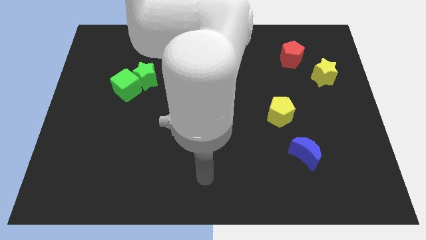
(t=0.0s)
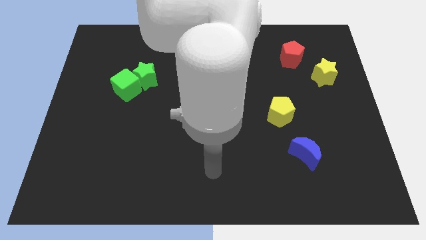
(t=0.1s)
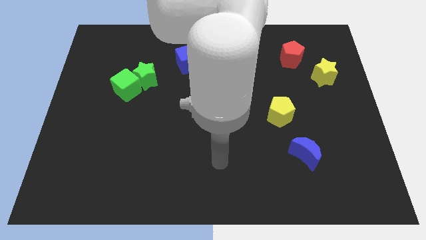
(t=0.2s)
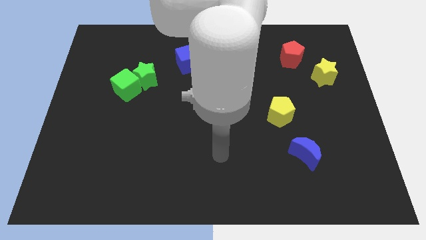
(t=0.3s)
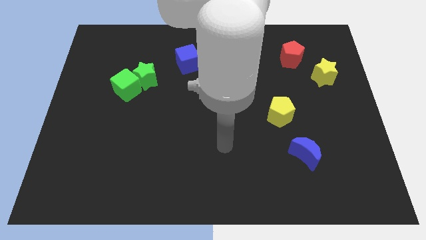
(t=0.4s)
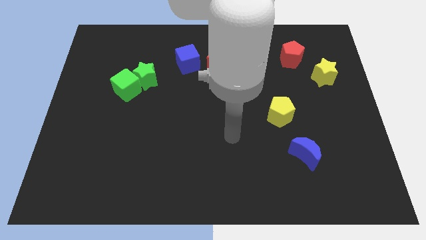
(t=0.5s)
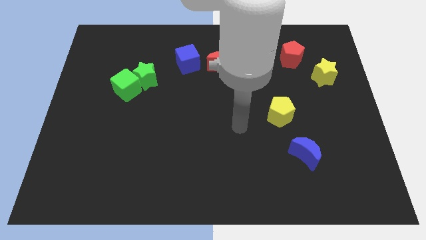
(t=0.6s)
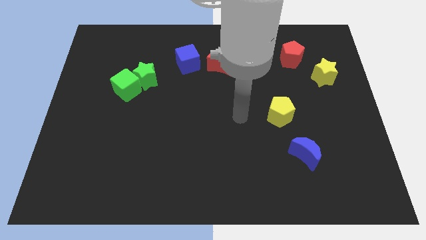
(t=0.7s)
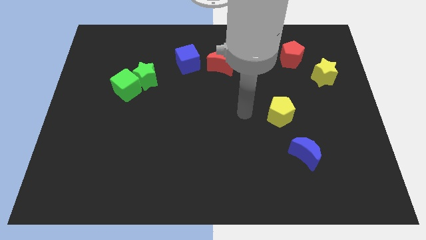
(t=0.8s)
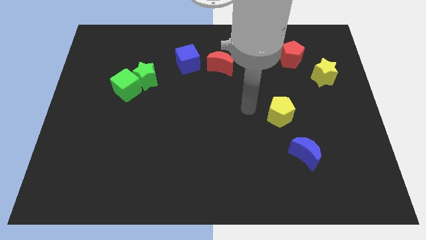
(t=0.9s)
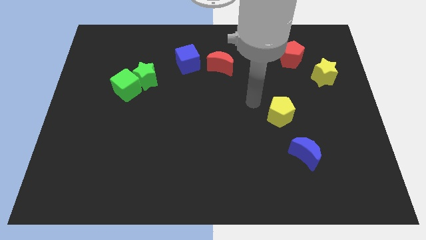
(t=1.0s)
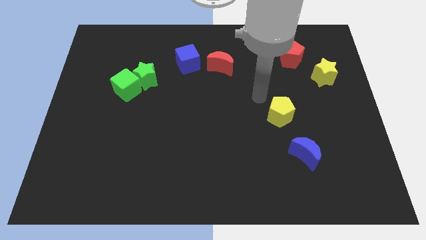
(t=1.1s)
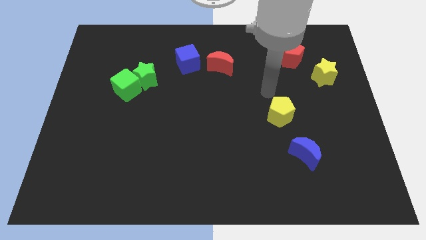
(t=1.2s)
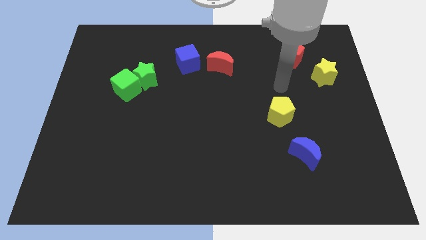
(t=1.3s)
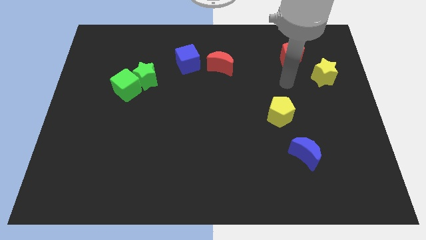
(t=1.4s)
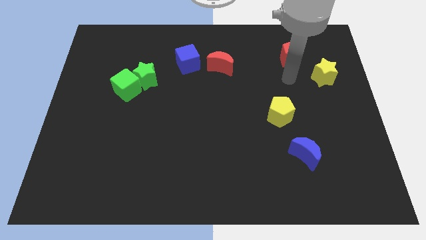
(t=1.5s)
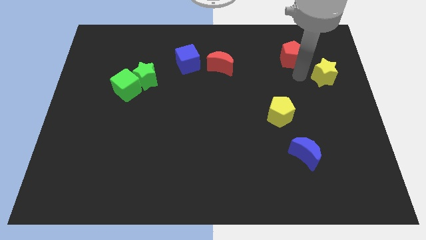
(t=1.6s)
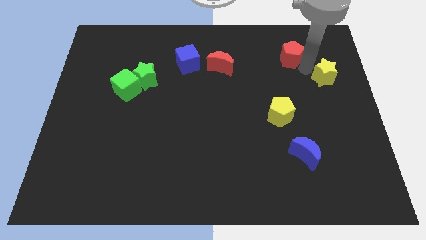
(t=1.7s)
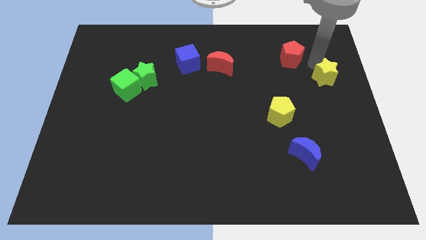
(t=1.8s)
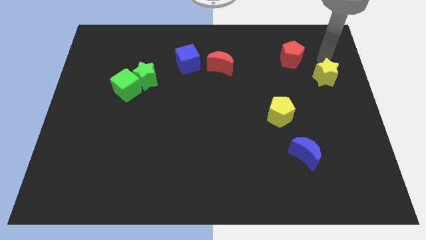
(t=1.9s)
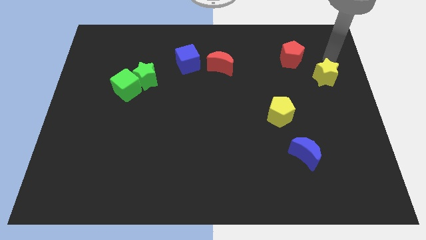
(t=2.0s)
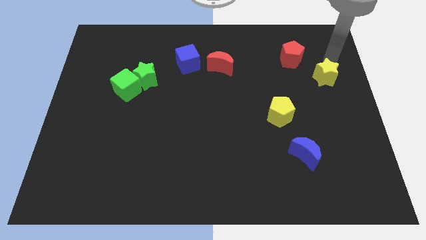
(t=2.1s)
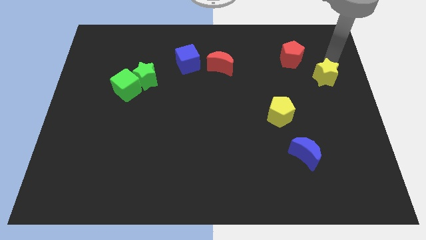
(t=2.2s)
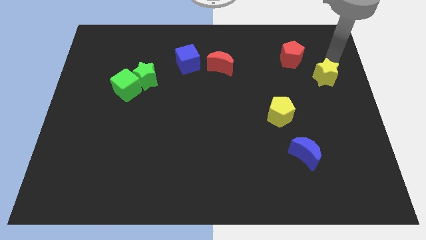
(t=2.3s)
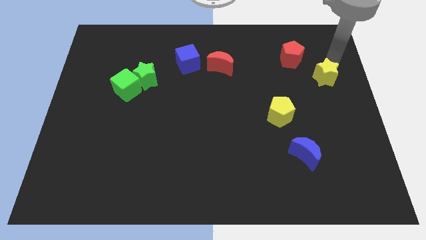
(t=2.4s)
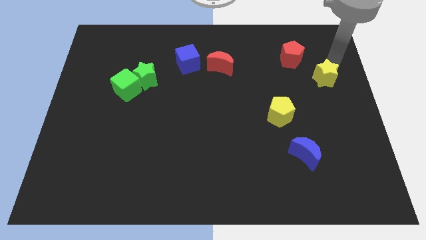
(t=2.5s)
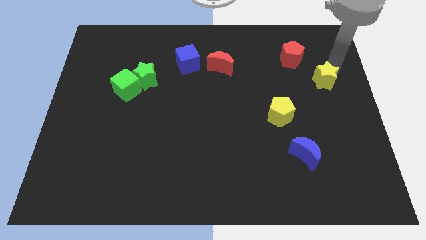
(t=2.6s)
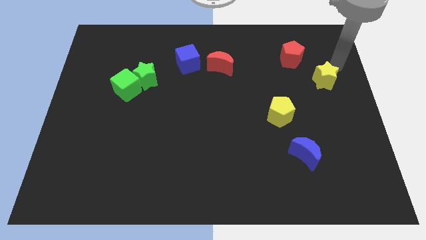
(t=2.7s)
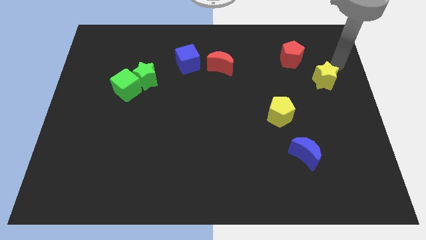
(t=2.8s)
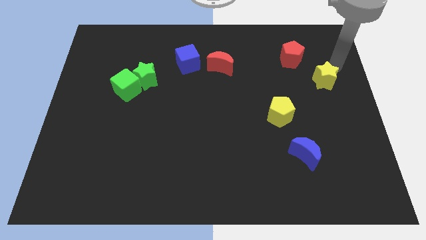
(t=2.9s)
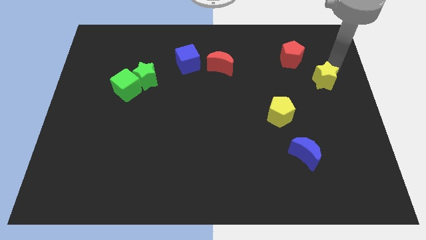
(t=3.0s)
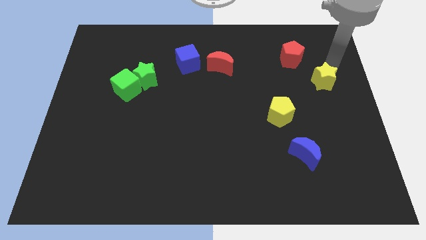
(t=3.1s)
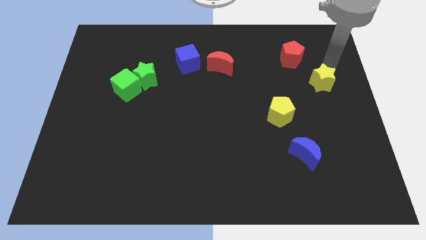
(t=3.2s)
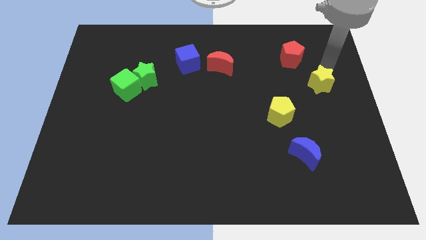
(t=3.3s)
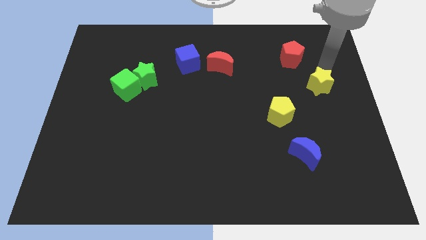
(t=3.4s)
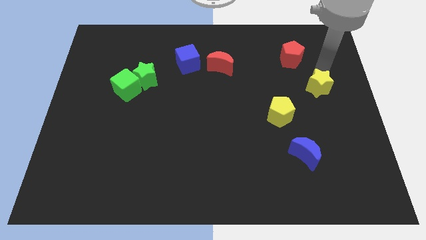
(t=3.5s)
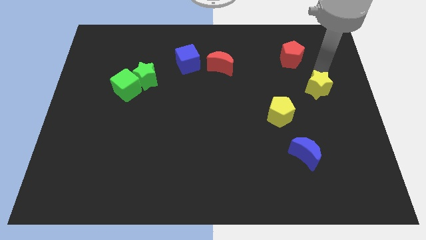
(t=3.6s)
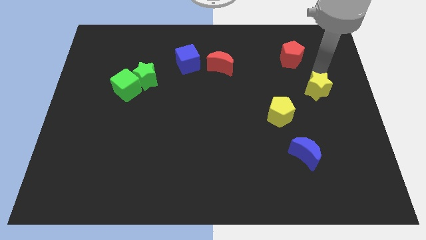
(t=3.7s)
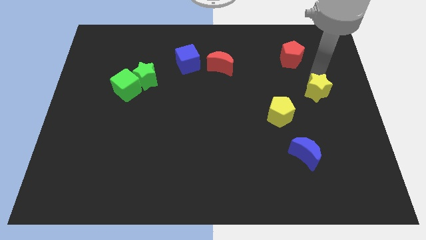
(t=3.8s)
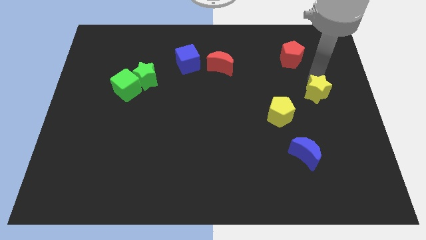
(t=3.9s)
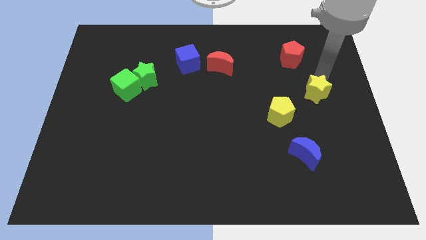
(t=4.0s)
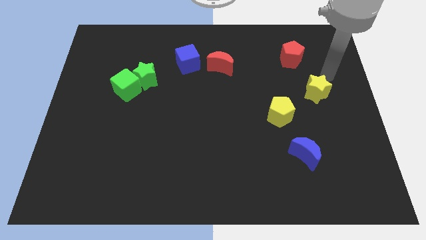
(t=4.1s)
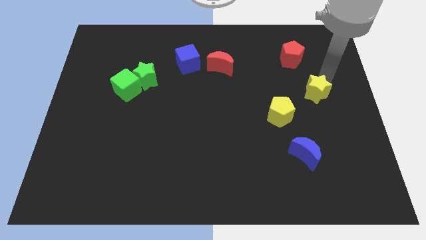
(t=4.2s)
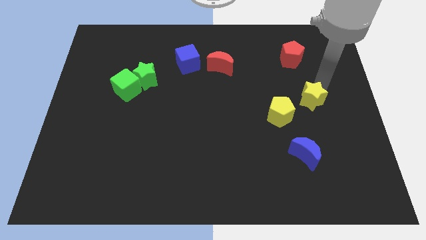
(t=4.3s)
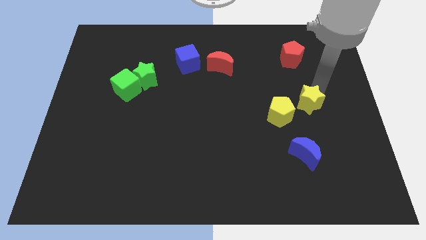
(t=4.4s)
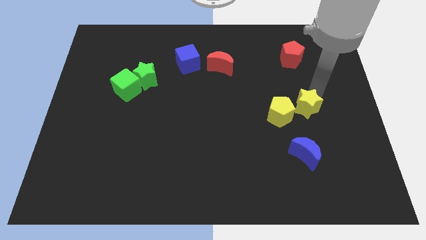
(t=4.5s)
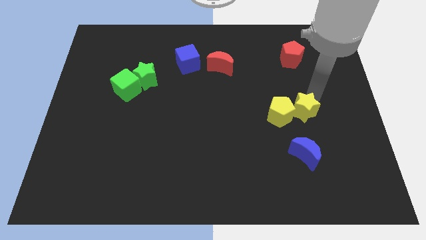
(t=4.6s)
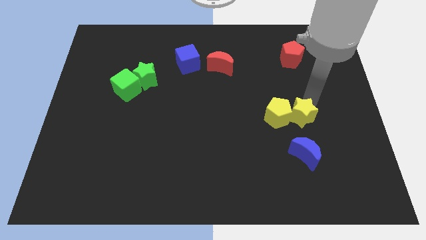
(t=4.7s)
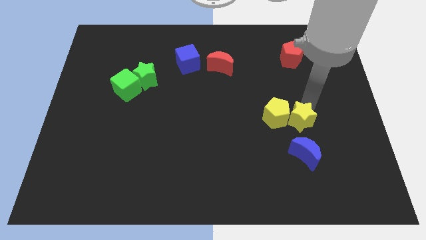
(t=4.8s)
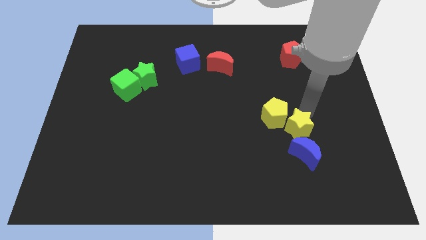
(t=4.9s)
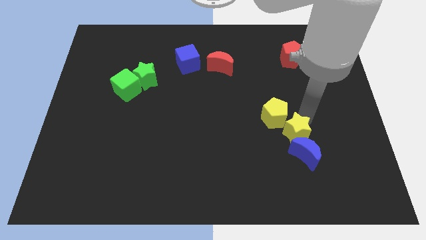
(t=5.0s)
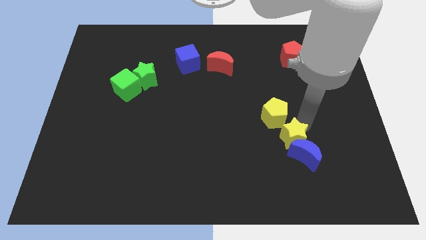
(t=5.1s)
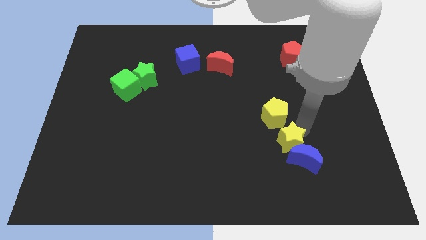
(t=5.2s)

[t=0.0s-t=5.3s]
push the yellow star downwards and left

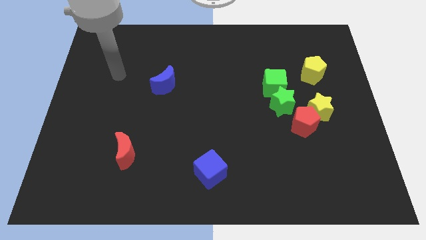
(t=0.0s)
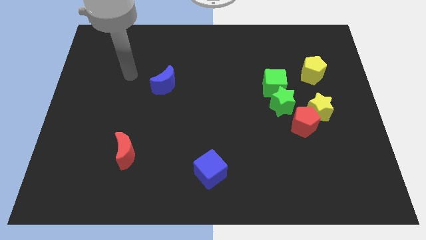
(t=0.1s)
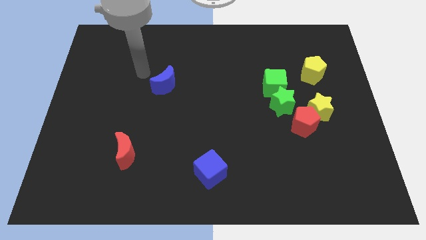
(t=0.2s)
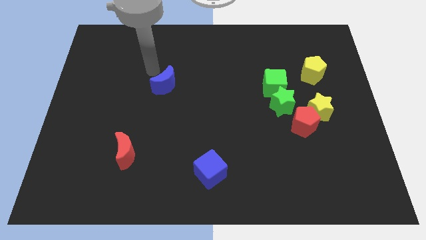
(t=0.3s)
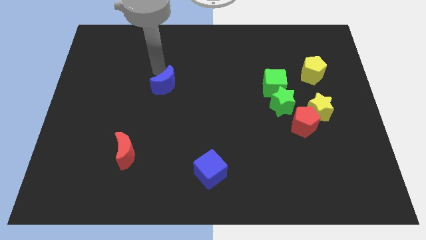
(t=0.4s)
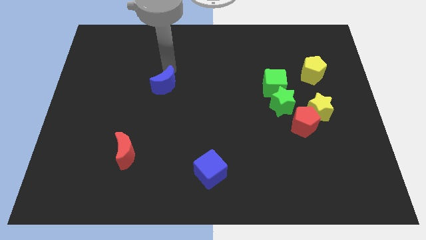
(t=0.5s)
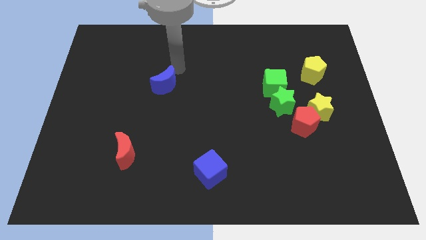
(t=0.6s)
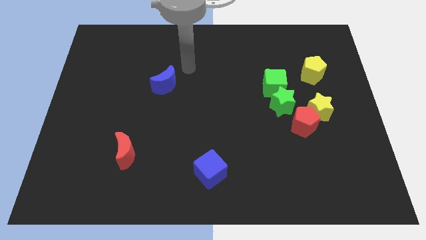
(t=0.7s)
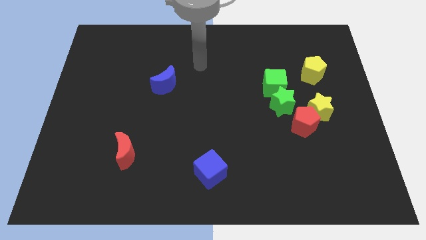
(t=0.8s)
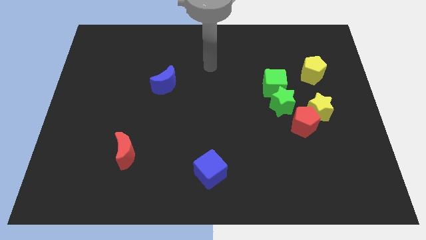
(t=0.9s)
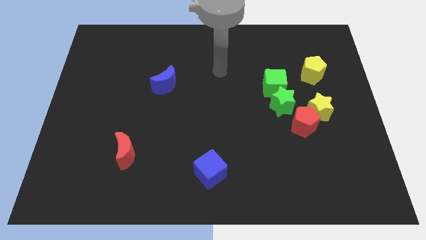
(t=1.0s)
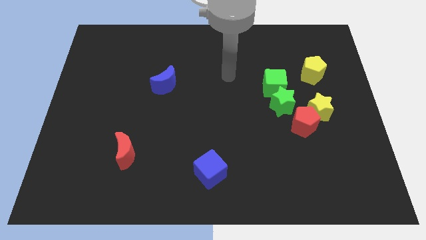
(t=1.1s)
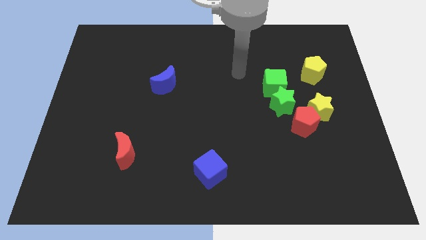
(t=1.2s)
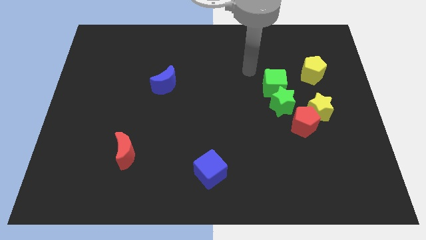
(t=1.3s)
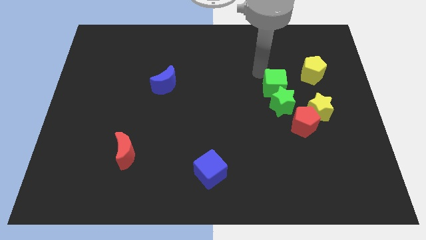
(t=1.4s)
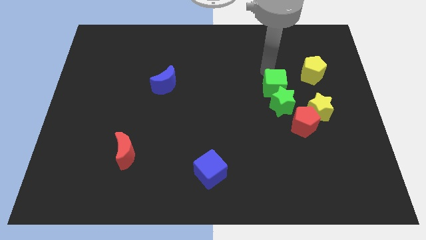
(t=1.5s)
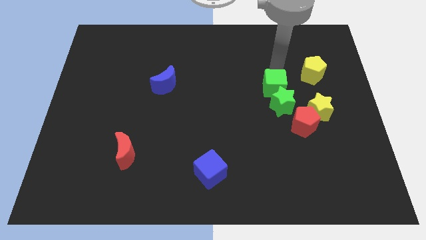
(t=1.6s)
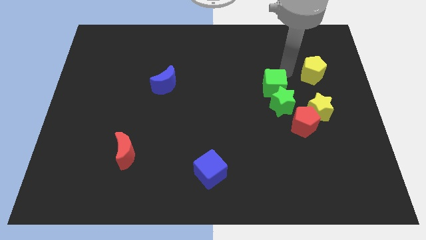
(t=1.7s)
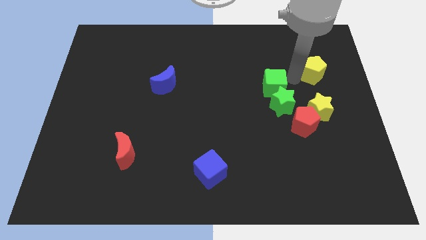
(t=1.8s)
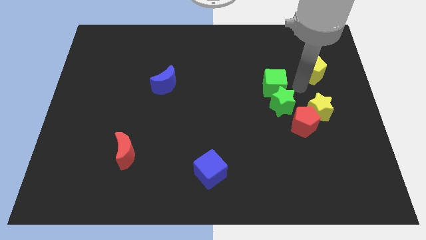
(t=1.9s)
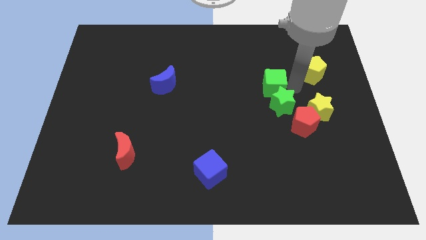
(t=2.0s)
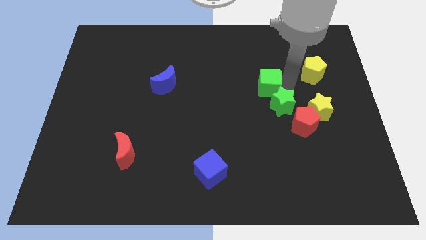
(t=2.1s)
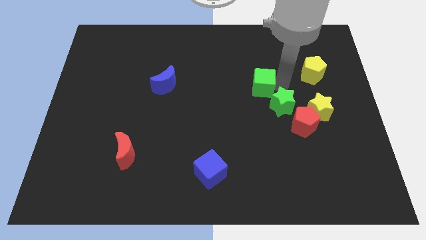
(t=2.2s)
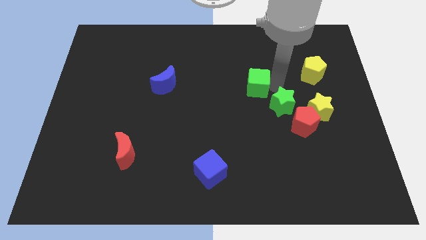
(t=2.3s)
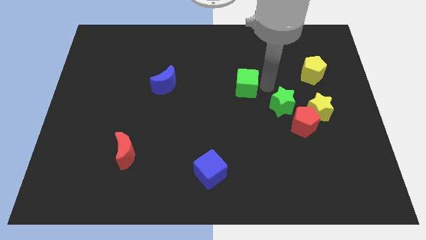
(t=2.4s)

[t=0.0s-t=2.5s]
slide the green cube left somewhat
